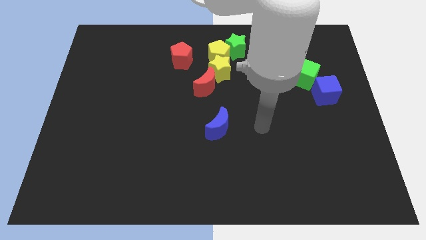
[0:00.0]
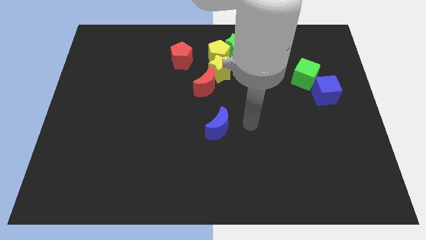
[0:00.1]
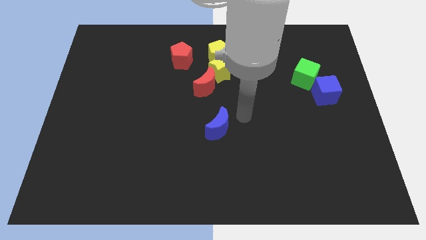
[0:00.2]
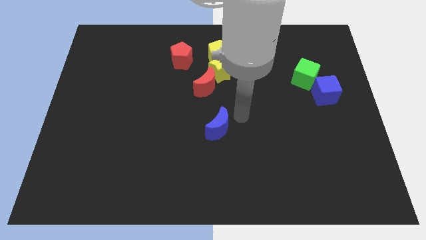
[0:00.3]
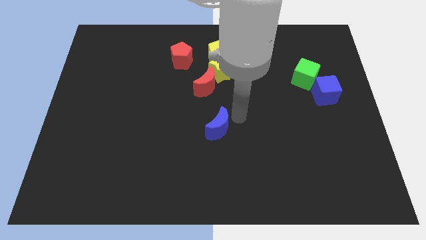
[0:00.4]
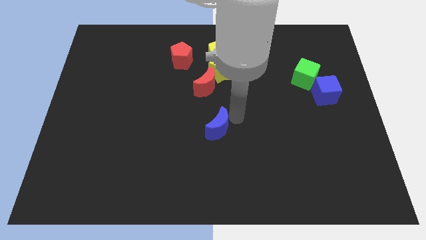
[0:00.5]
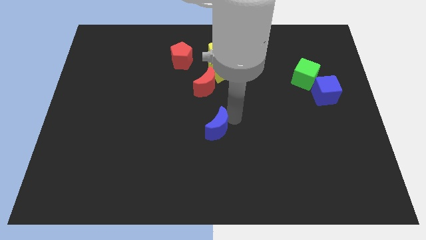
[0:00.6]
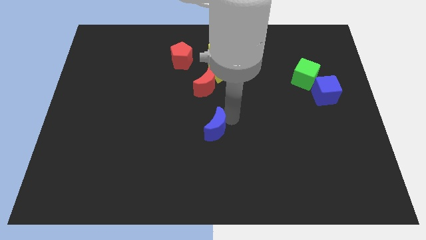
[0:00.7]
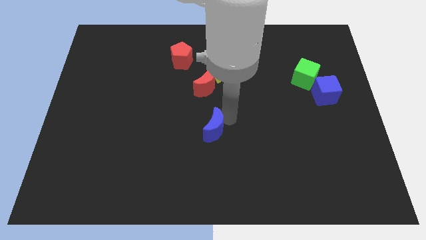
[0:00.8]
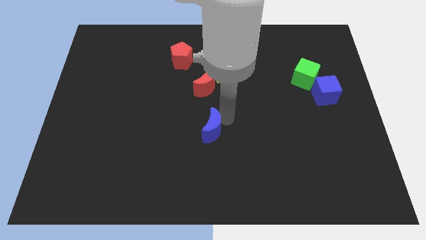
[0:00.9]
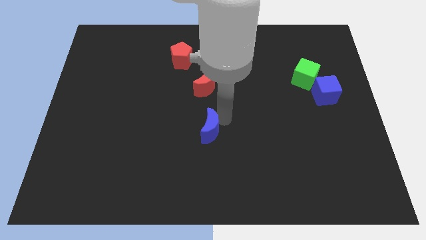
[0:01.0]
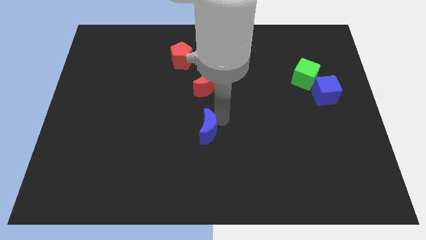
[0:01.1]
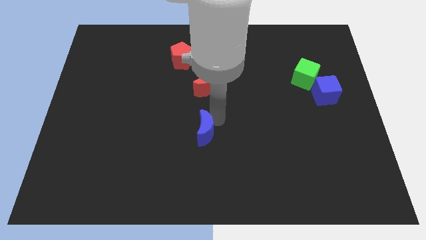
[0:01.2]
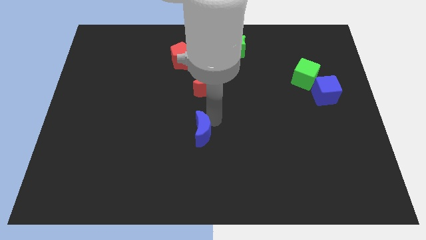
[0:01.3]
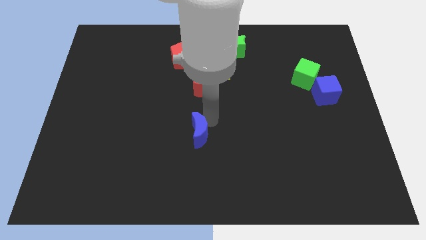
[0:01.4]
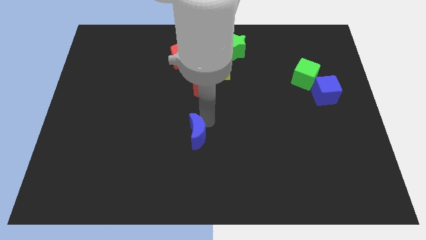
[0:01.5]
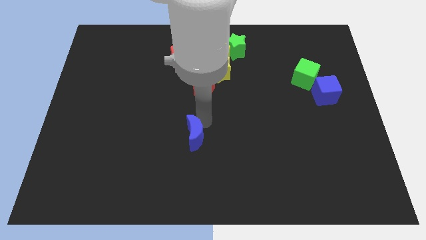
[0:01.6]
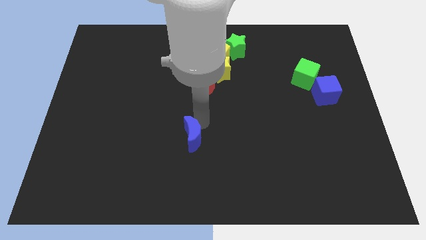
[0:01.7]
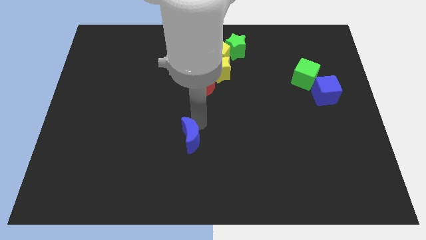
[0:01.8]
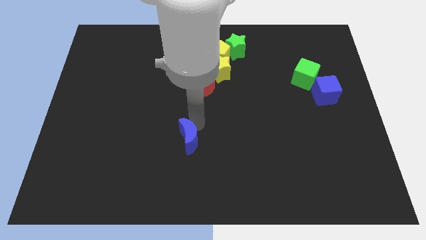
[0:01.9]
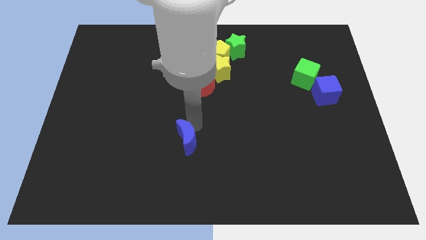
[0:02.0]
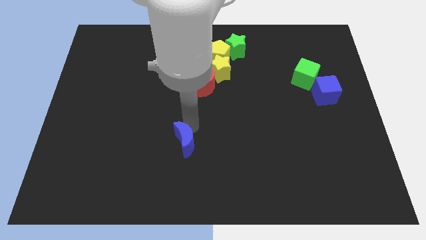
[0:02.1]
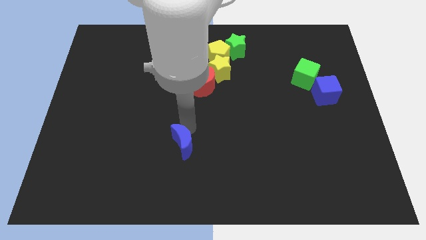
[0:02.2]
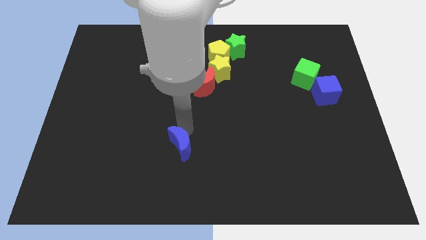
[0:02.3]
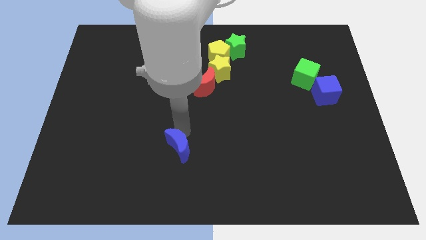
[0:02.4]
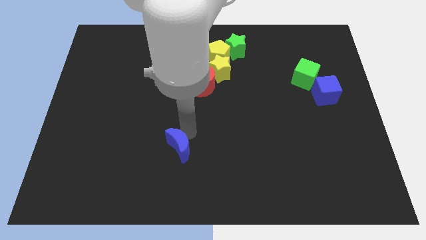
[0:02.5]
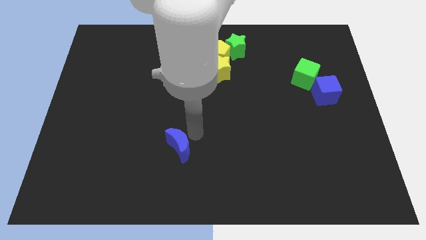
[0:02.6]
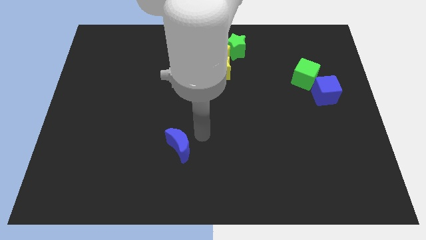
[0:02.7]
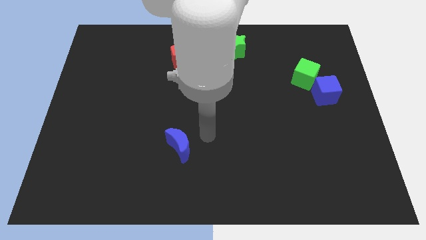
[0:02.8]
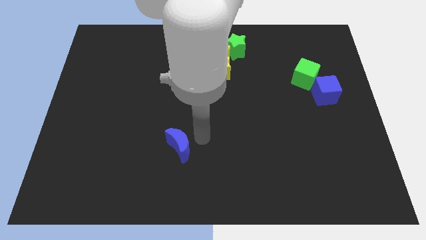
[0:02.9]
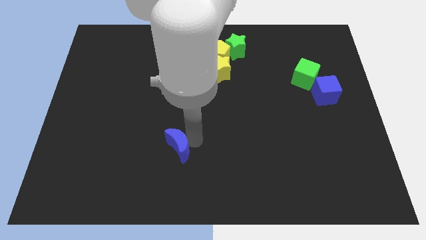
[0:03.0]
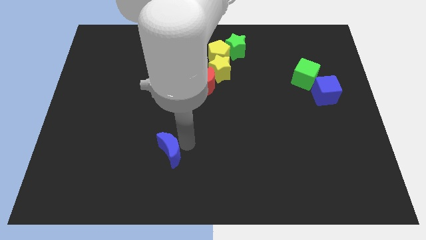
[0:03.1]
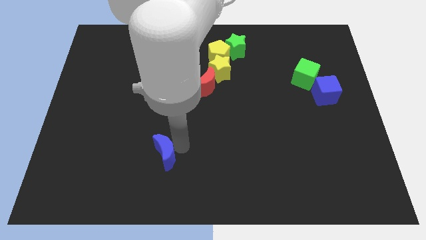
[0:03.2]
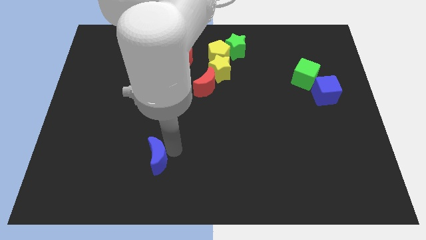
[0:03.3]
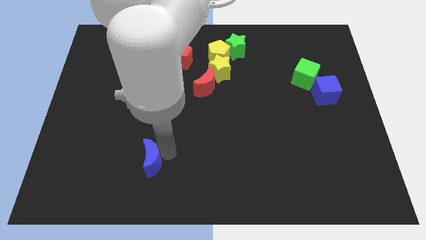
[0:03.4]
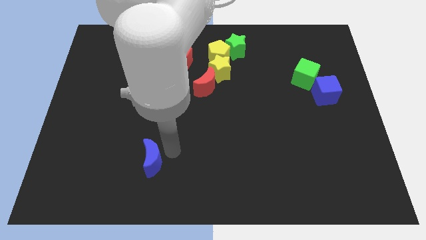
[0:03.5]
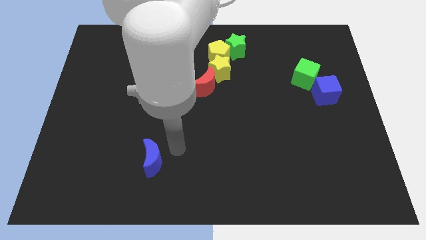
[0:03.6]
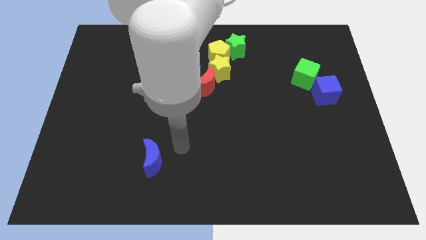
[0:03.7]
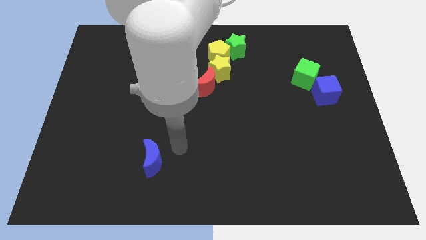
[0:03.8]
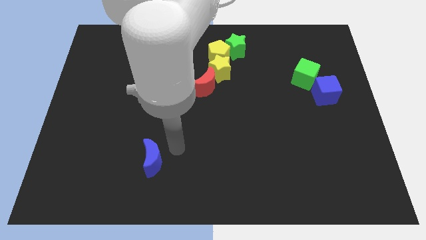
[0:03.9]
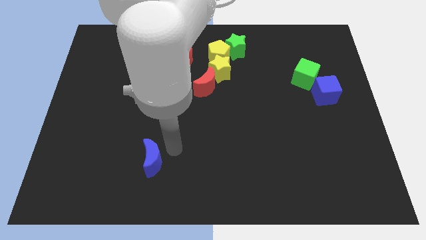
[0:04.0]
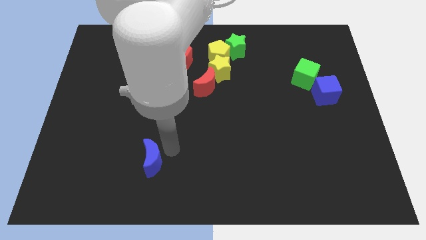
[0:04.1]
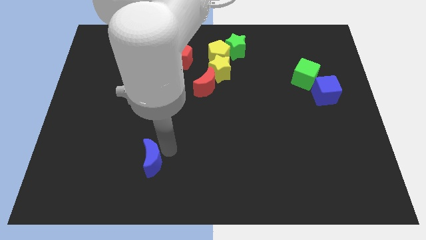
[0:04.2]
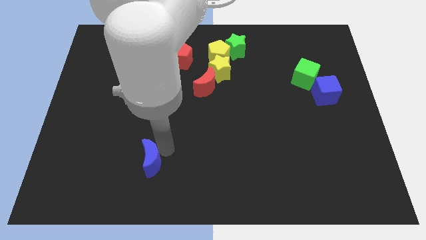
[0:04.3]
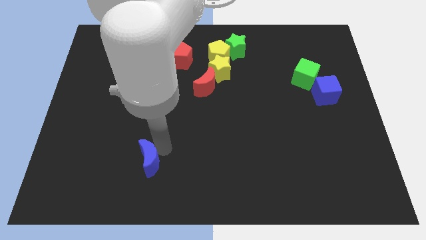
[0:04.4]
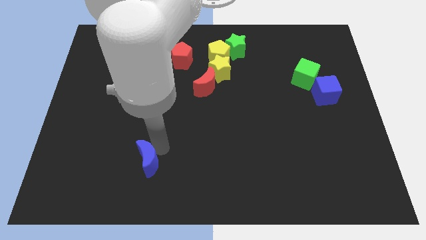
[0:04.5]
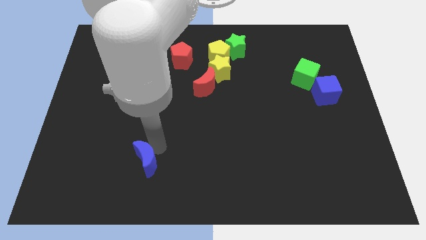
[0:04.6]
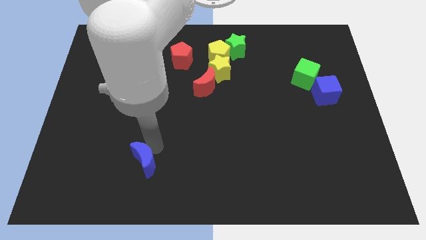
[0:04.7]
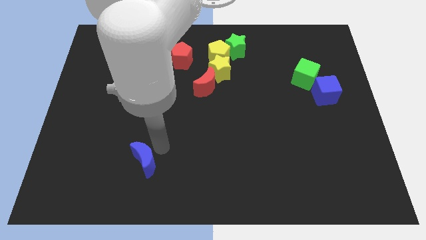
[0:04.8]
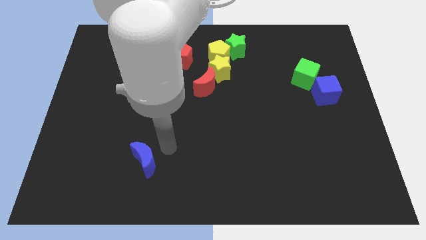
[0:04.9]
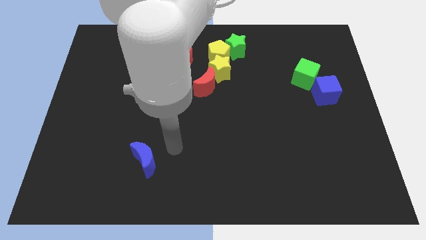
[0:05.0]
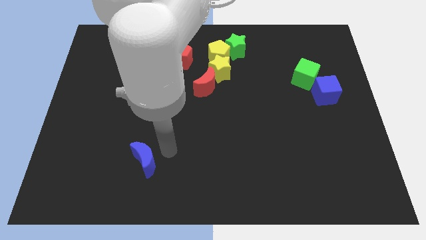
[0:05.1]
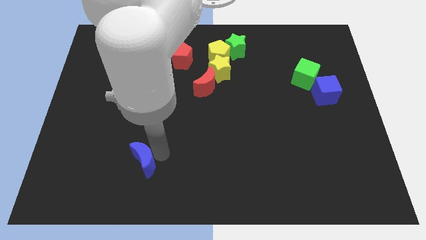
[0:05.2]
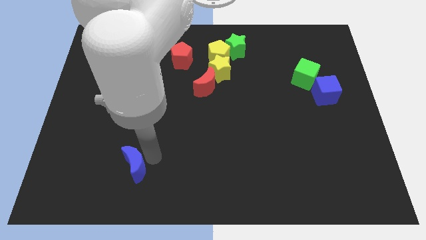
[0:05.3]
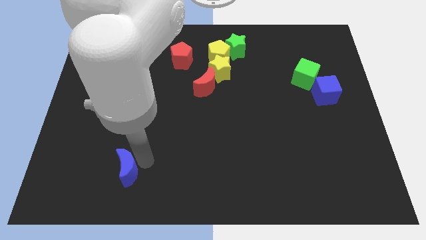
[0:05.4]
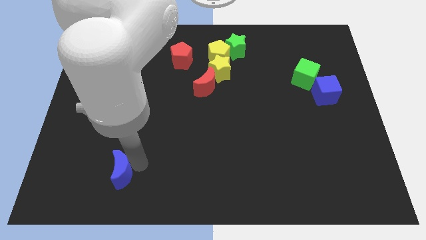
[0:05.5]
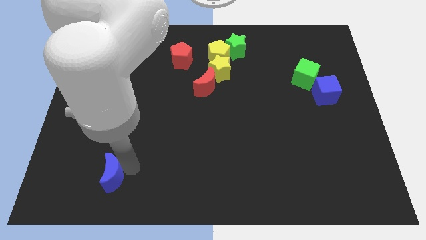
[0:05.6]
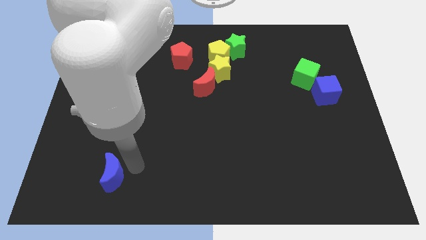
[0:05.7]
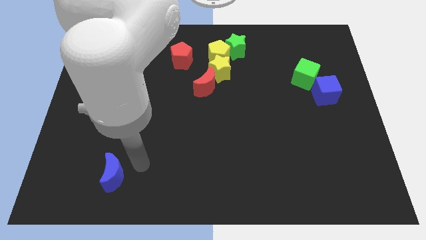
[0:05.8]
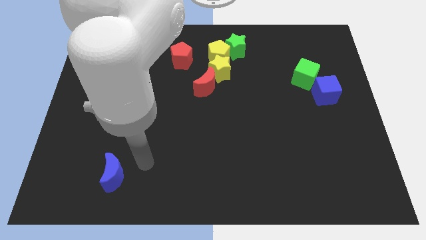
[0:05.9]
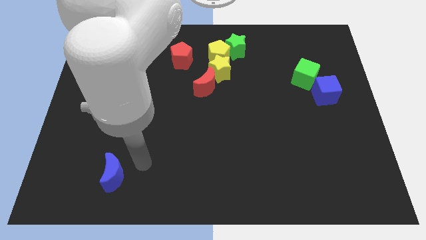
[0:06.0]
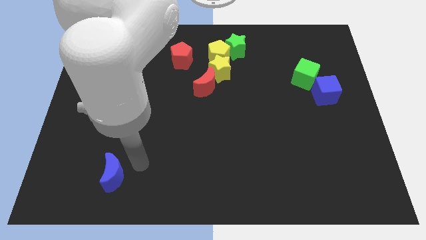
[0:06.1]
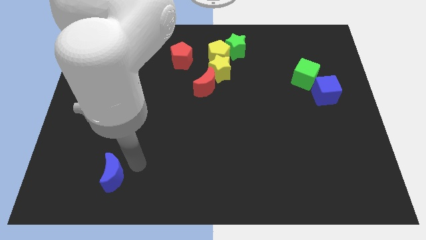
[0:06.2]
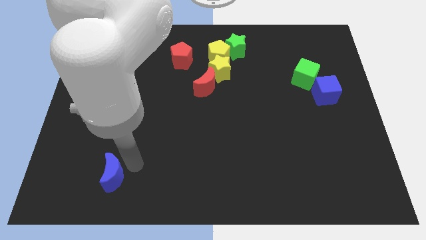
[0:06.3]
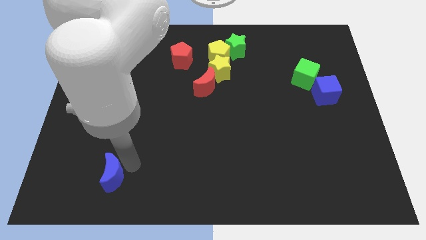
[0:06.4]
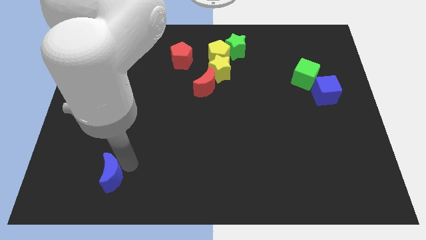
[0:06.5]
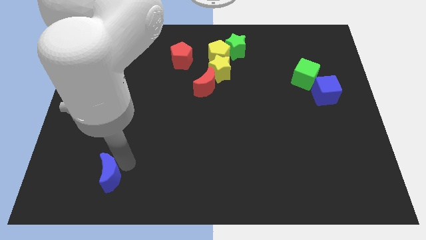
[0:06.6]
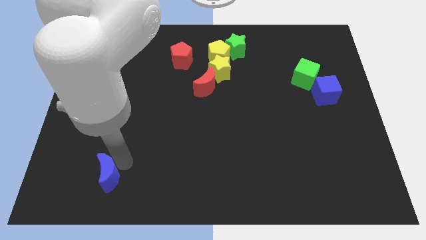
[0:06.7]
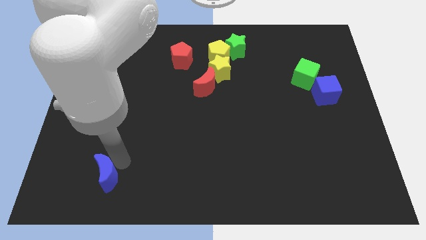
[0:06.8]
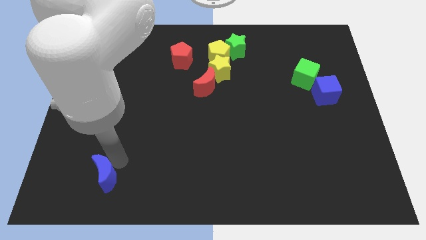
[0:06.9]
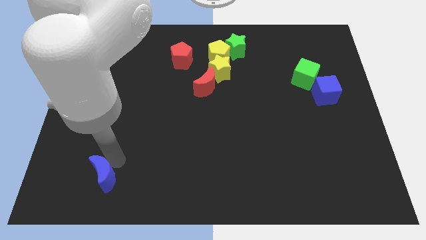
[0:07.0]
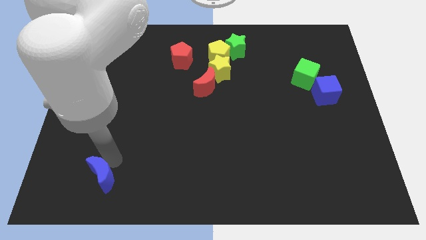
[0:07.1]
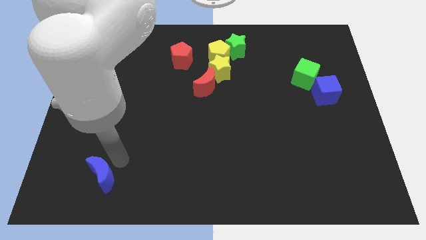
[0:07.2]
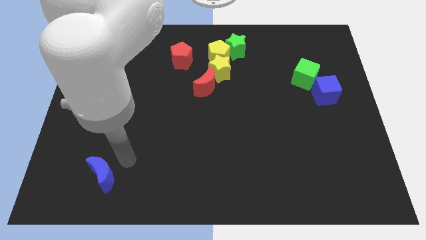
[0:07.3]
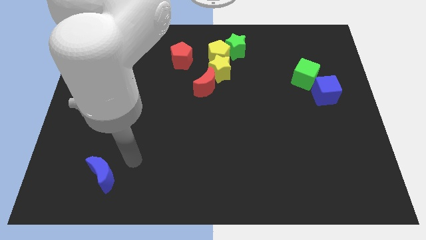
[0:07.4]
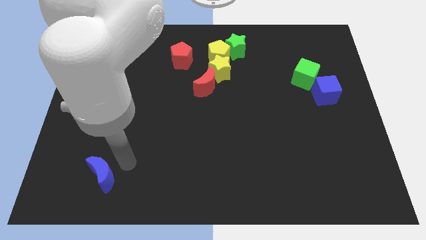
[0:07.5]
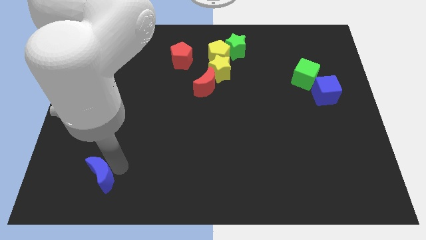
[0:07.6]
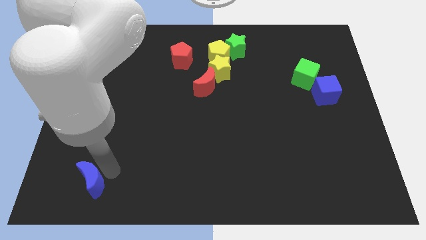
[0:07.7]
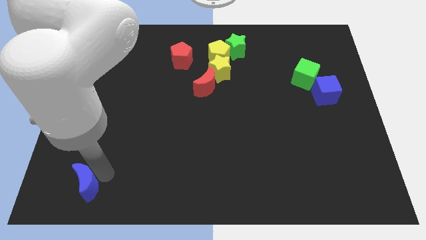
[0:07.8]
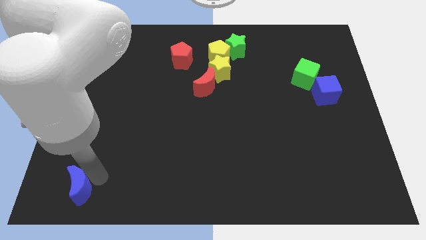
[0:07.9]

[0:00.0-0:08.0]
put the blue moon to the lower left corner
